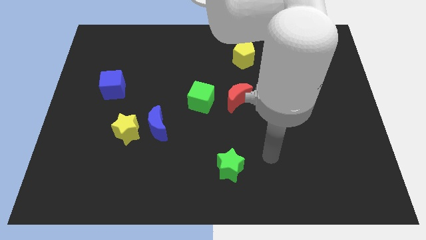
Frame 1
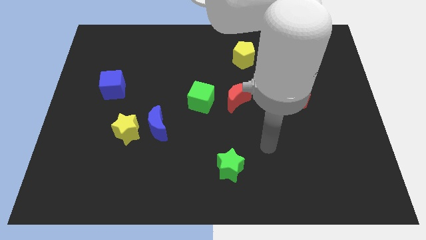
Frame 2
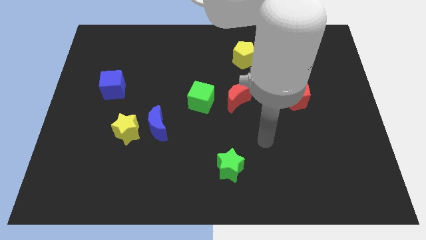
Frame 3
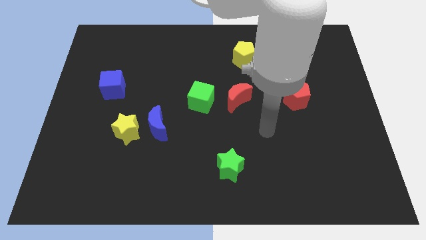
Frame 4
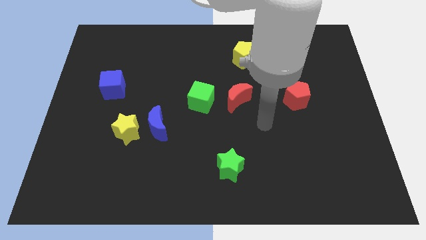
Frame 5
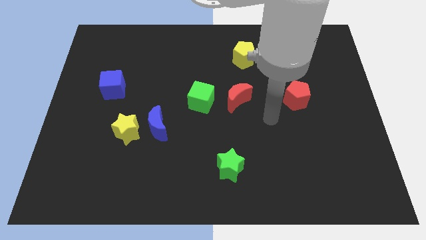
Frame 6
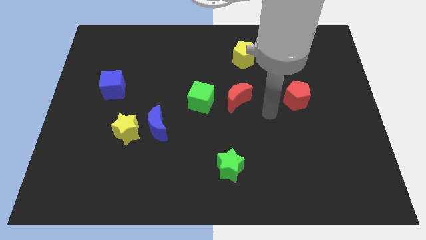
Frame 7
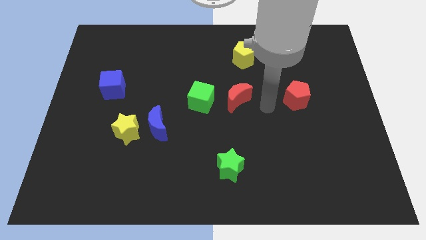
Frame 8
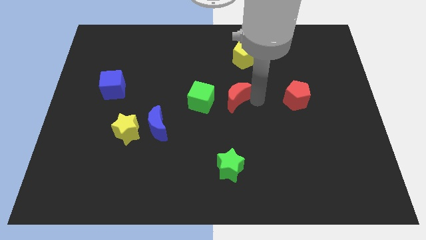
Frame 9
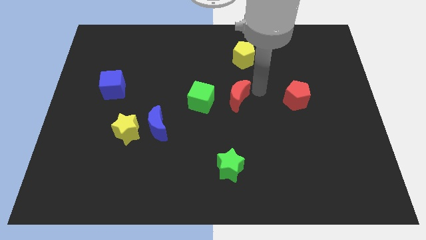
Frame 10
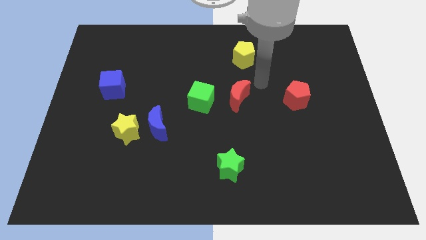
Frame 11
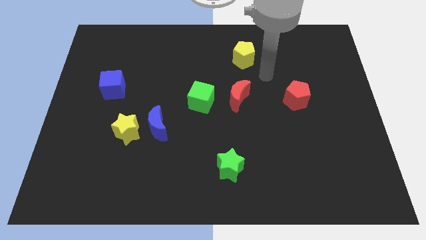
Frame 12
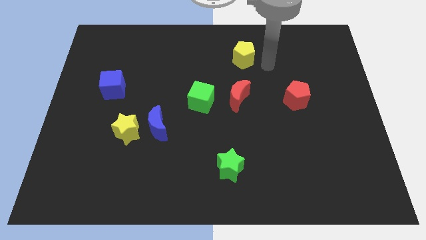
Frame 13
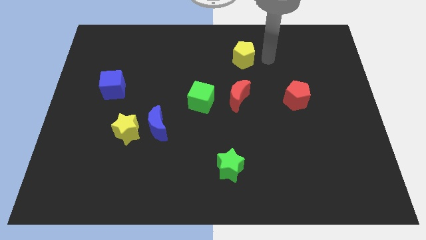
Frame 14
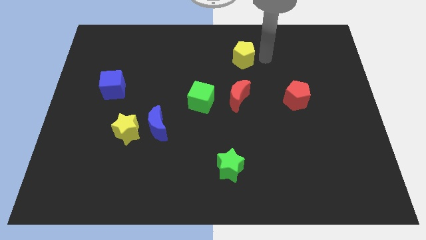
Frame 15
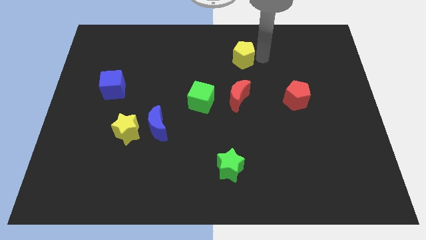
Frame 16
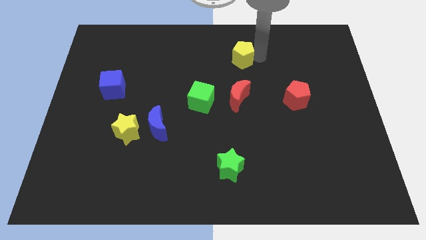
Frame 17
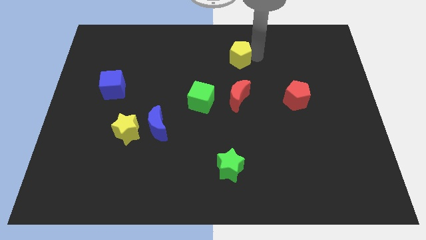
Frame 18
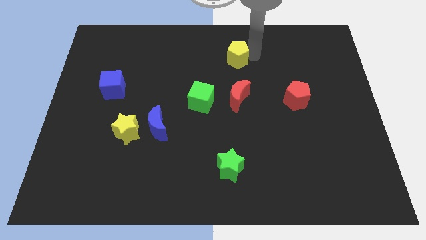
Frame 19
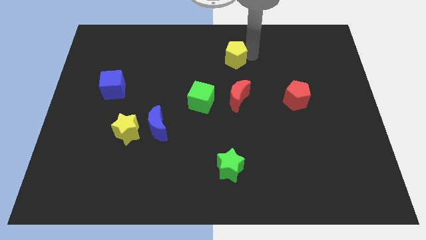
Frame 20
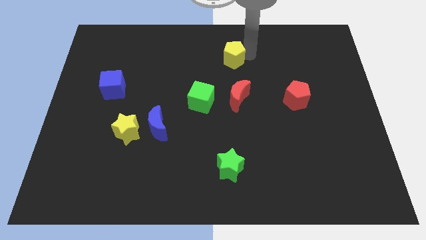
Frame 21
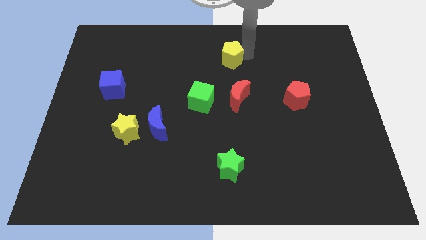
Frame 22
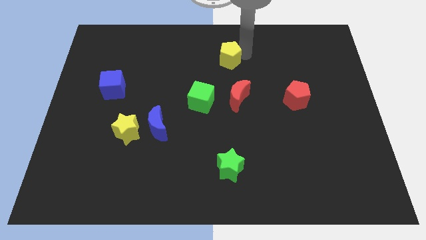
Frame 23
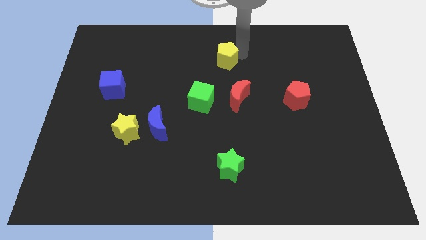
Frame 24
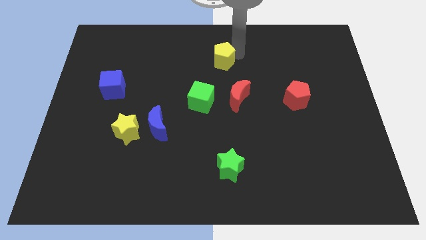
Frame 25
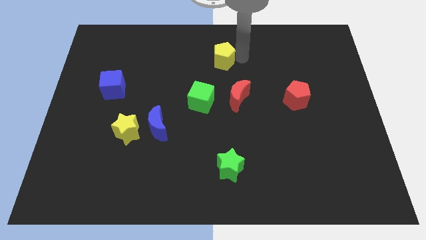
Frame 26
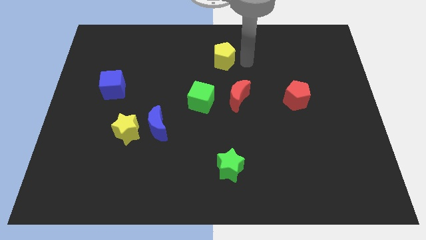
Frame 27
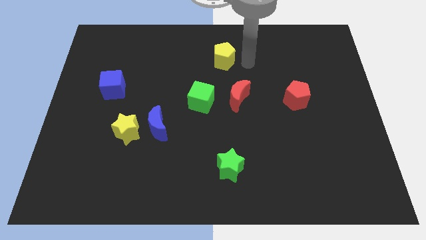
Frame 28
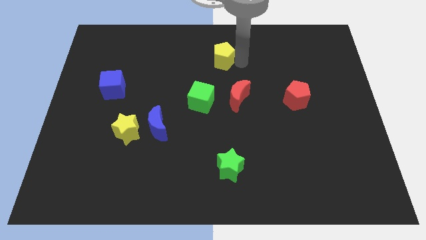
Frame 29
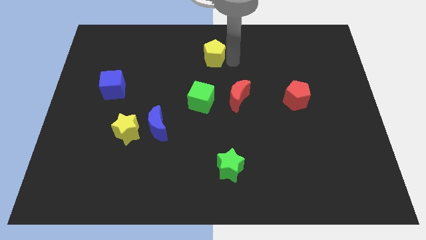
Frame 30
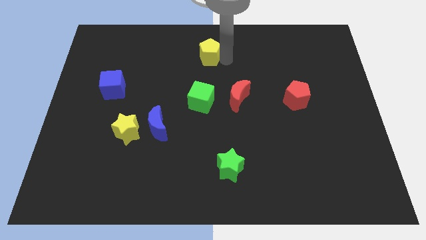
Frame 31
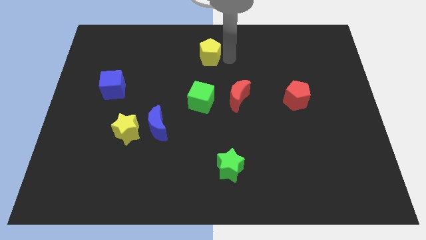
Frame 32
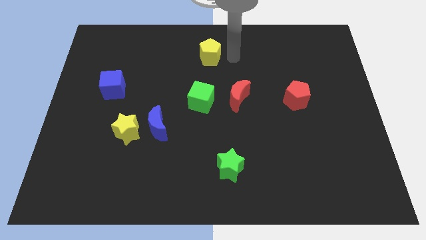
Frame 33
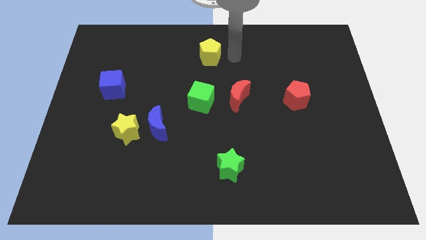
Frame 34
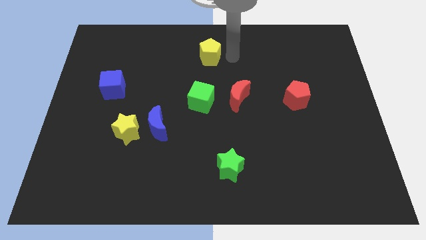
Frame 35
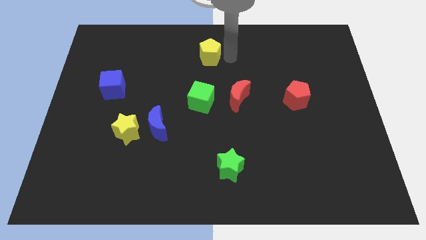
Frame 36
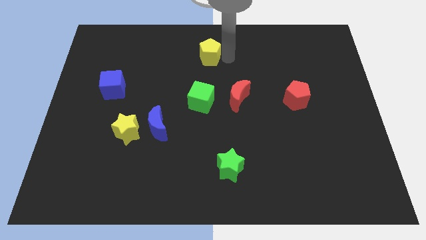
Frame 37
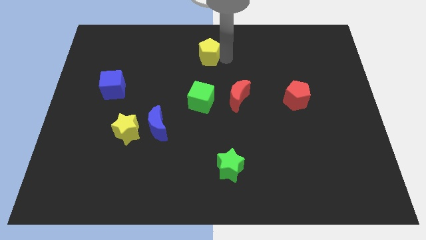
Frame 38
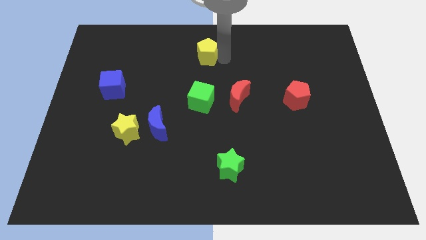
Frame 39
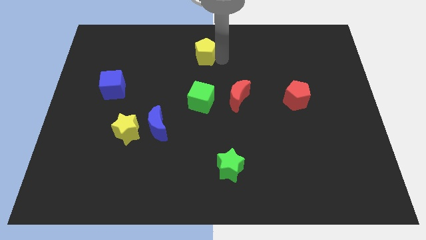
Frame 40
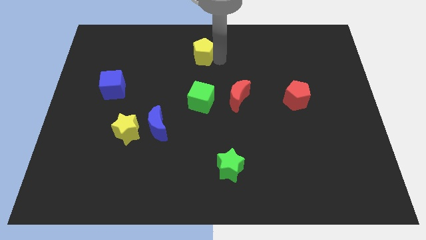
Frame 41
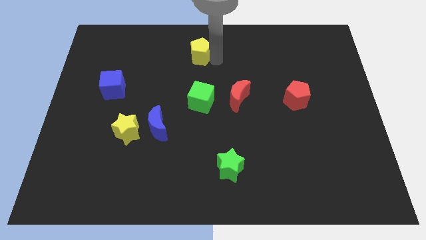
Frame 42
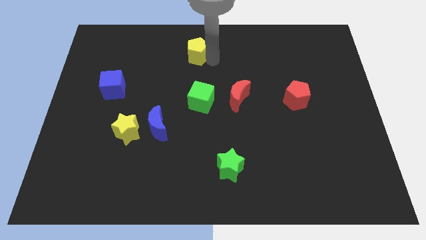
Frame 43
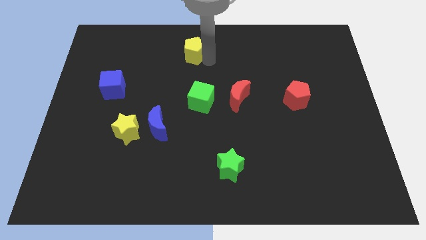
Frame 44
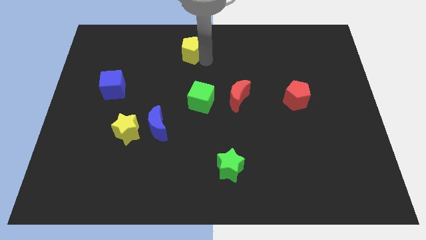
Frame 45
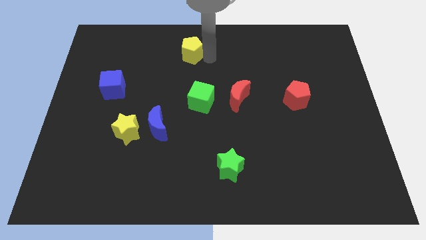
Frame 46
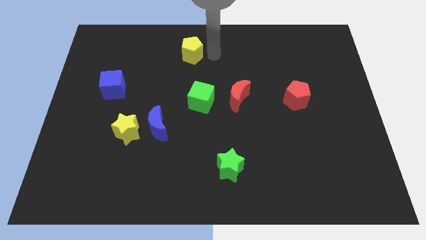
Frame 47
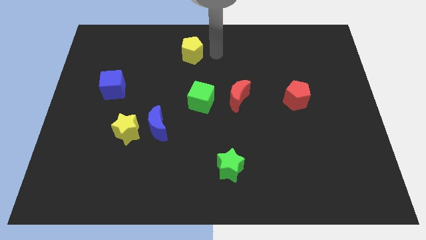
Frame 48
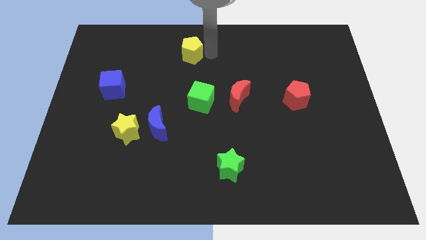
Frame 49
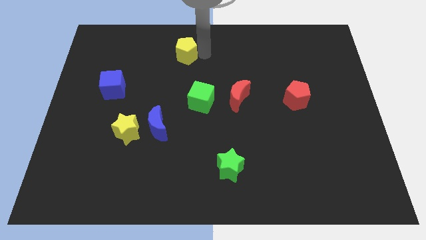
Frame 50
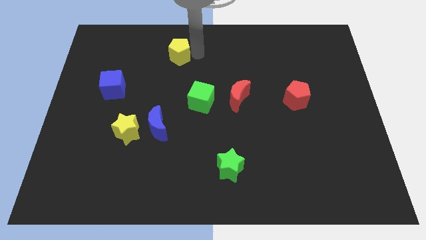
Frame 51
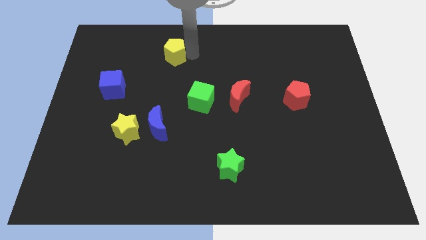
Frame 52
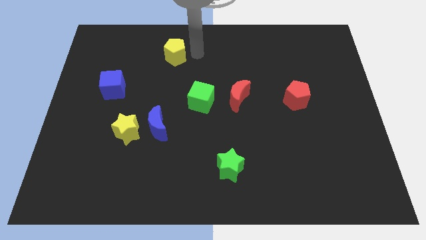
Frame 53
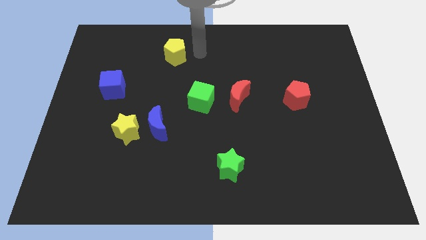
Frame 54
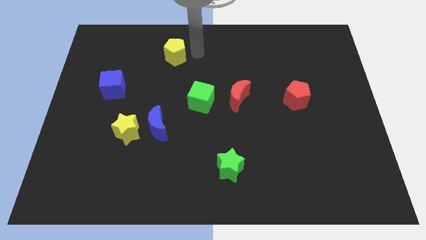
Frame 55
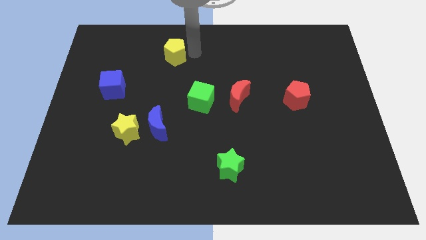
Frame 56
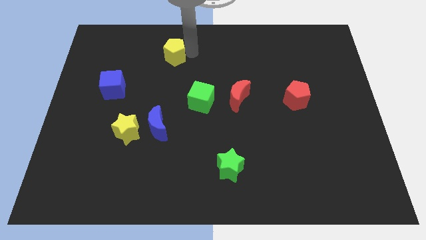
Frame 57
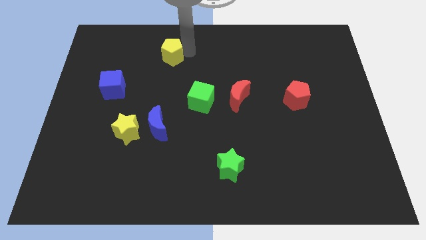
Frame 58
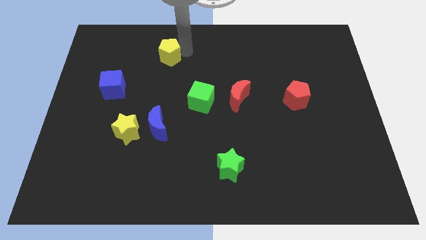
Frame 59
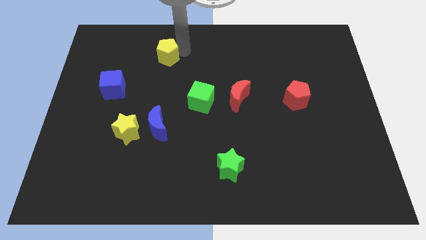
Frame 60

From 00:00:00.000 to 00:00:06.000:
slide the yellow pentagon left

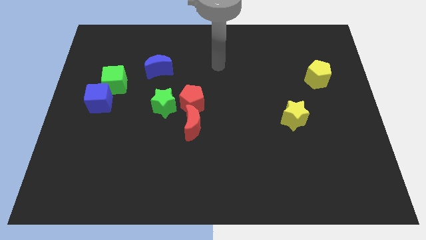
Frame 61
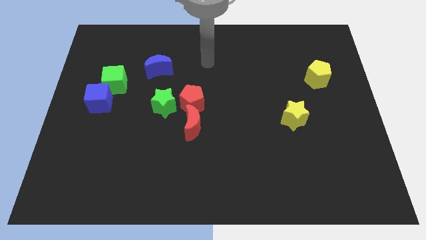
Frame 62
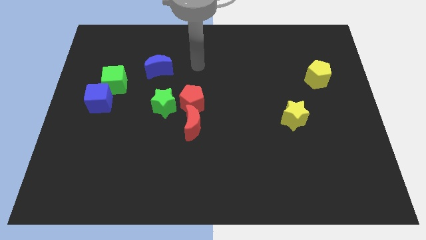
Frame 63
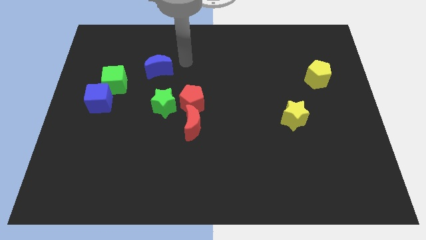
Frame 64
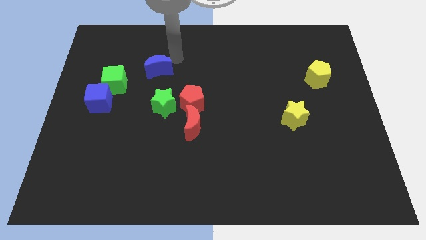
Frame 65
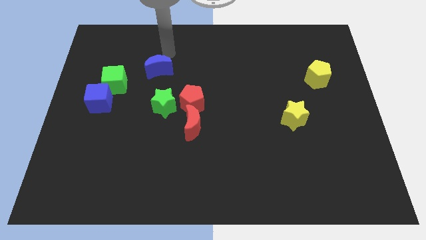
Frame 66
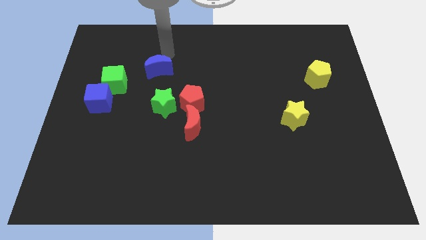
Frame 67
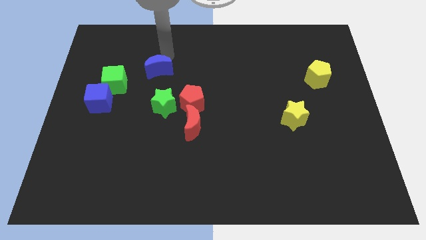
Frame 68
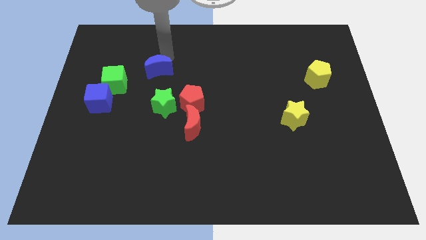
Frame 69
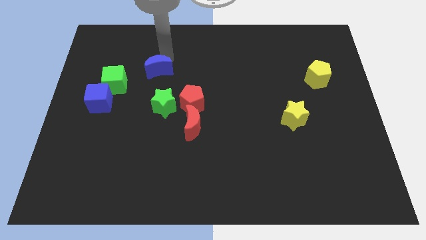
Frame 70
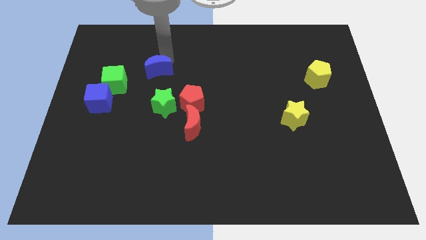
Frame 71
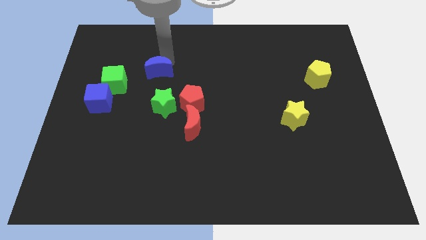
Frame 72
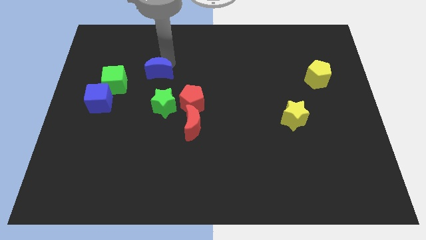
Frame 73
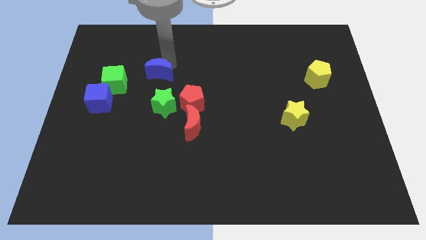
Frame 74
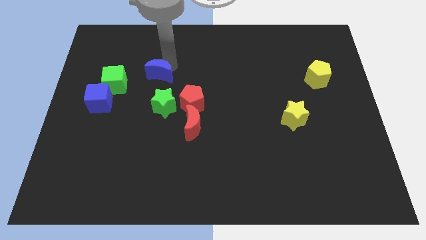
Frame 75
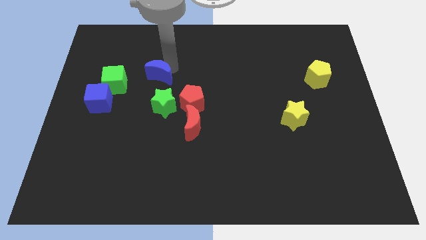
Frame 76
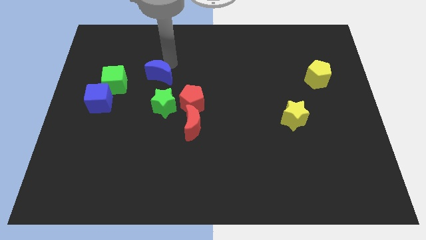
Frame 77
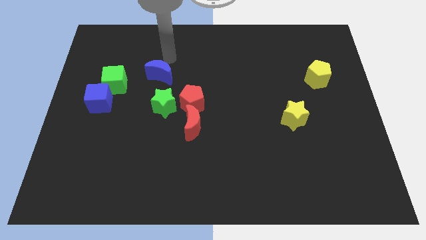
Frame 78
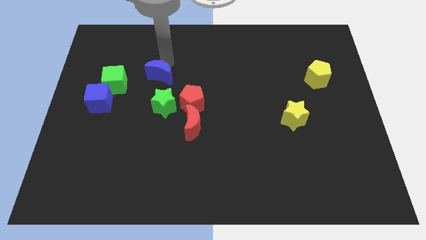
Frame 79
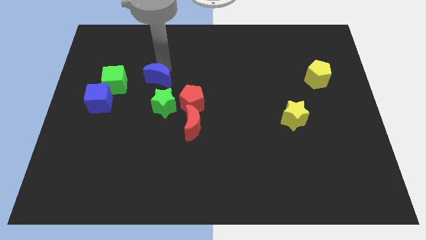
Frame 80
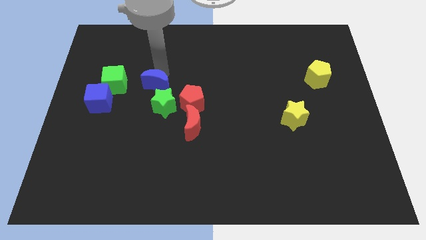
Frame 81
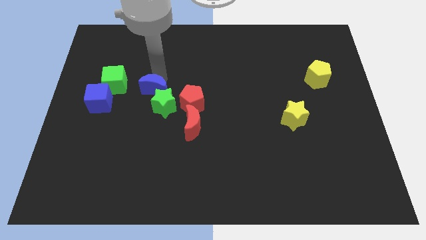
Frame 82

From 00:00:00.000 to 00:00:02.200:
slightly push the blue moon down
